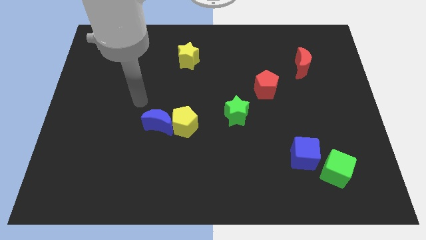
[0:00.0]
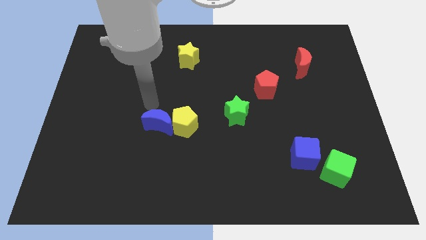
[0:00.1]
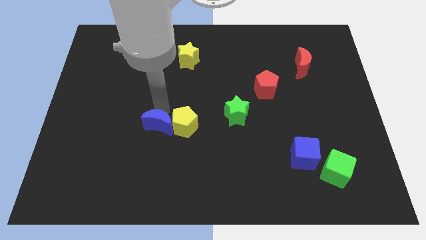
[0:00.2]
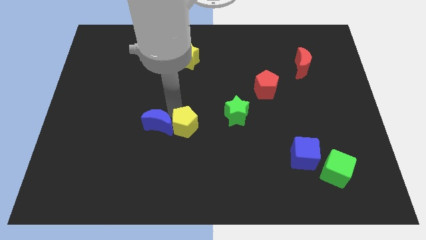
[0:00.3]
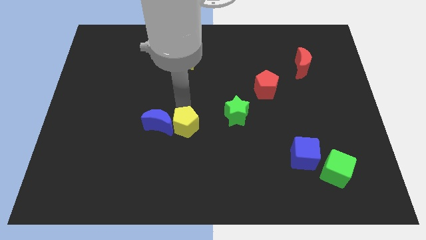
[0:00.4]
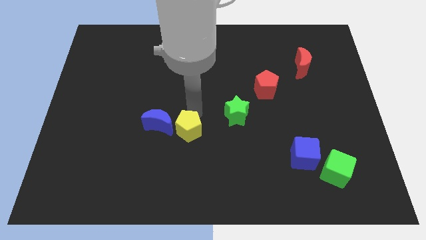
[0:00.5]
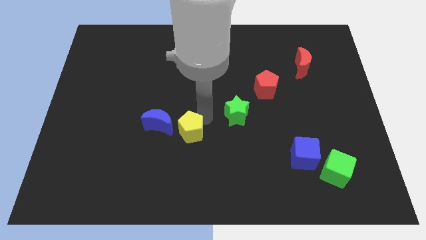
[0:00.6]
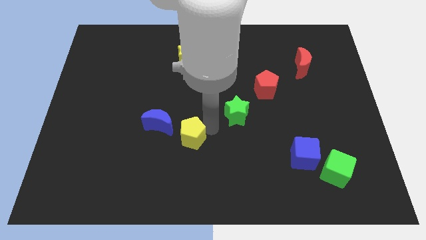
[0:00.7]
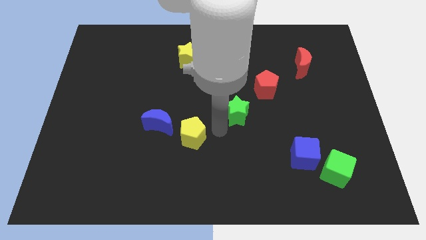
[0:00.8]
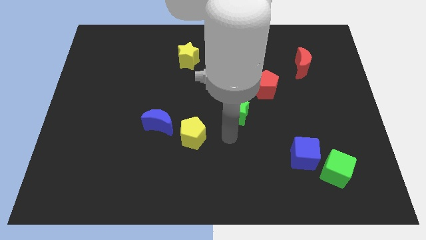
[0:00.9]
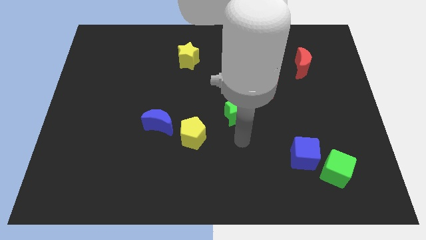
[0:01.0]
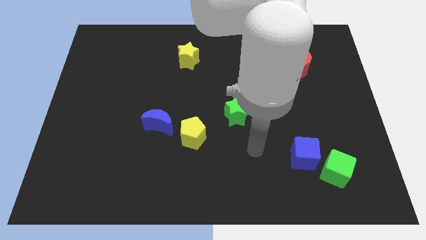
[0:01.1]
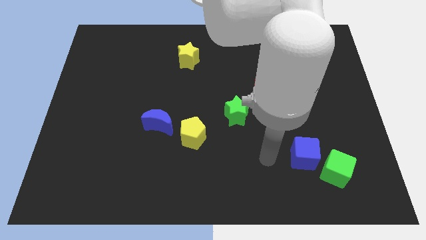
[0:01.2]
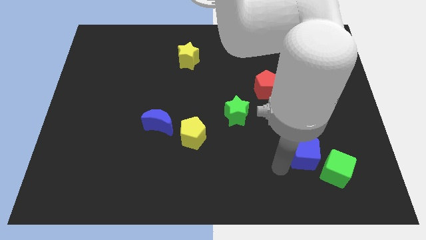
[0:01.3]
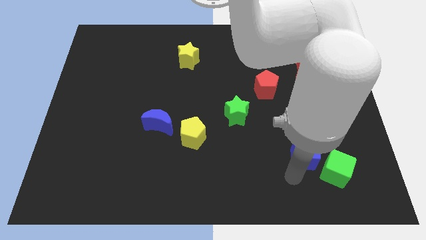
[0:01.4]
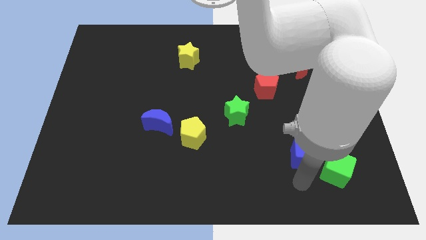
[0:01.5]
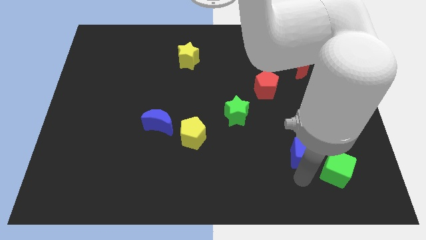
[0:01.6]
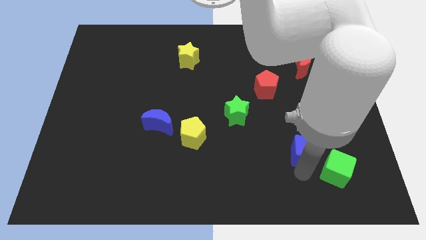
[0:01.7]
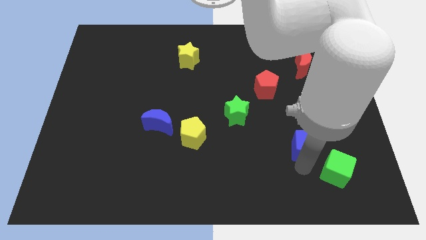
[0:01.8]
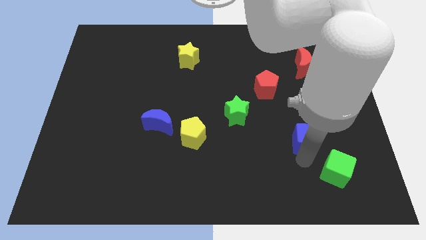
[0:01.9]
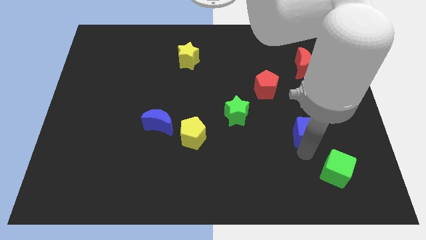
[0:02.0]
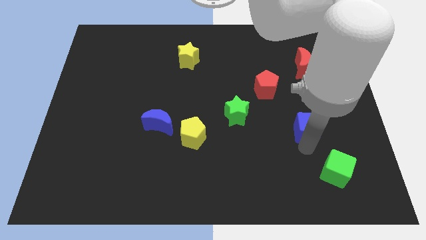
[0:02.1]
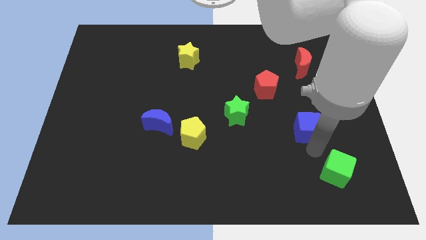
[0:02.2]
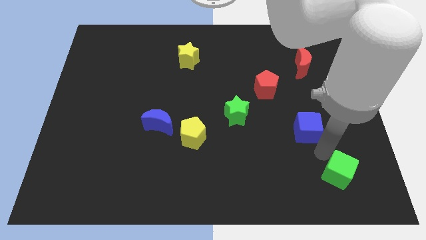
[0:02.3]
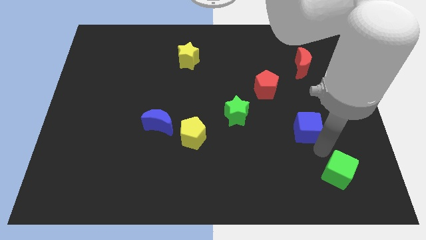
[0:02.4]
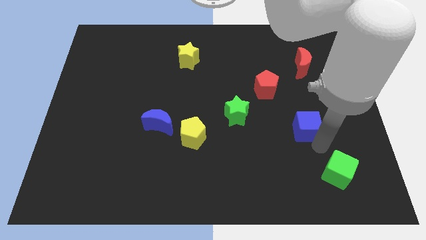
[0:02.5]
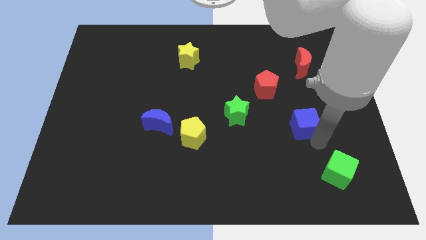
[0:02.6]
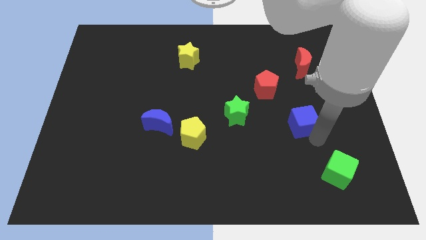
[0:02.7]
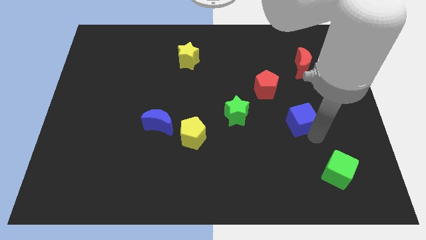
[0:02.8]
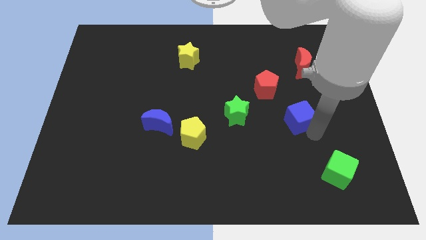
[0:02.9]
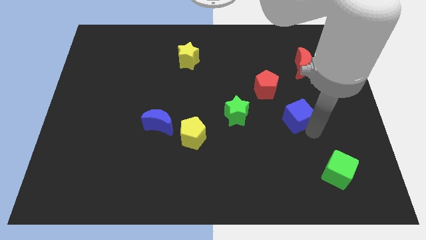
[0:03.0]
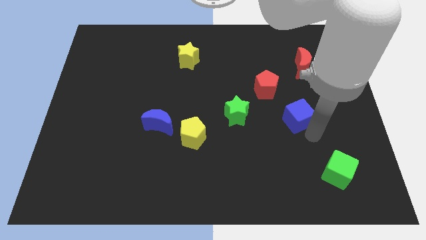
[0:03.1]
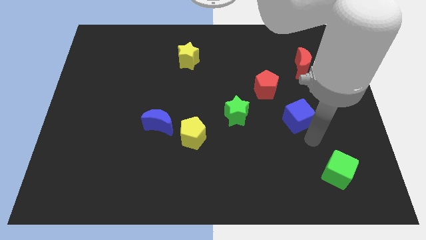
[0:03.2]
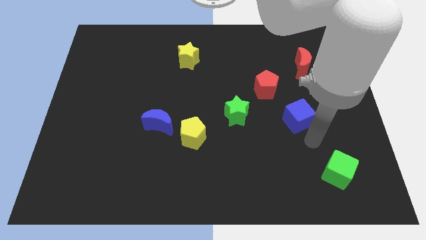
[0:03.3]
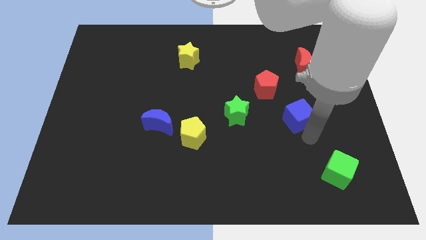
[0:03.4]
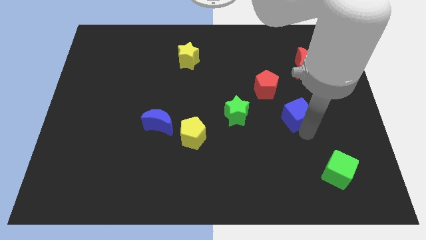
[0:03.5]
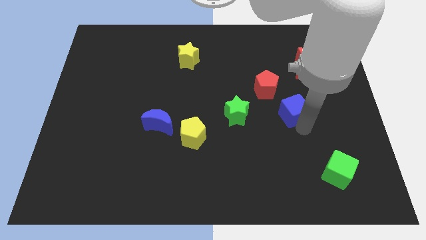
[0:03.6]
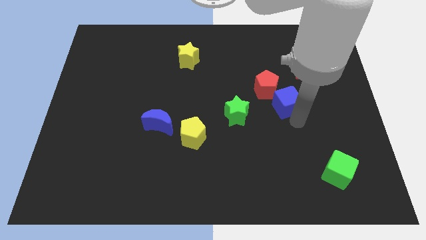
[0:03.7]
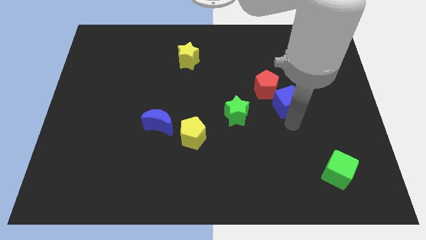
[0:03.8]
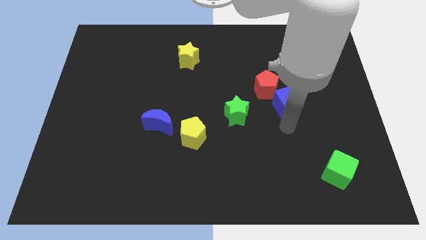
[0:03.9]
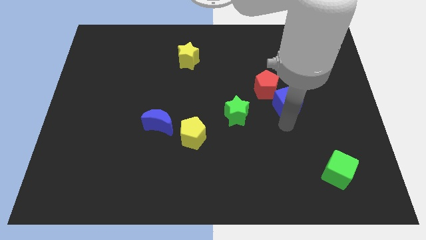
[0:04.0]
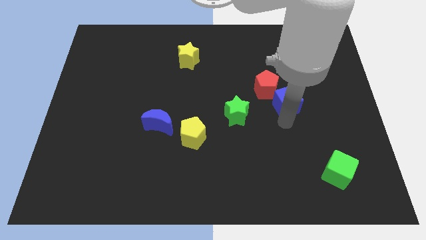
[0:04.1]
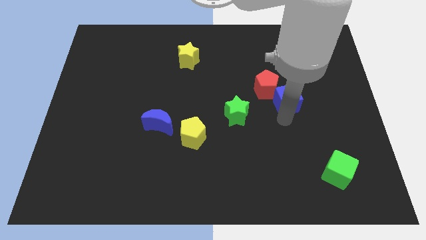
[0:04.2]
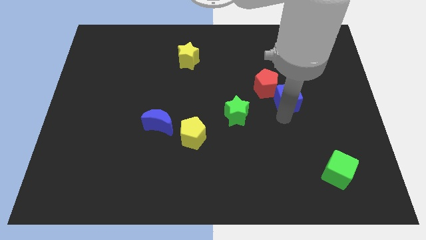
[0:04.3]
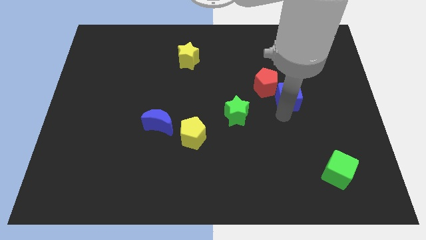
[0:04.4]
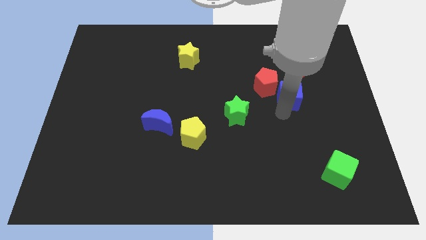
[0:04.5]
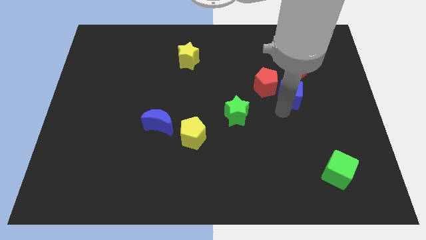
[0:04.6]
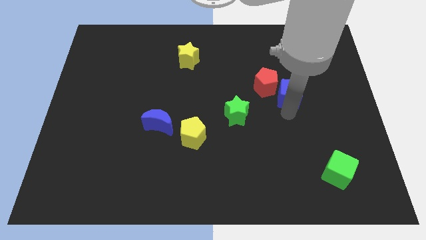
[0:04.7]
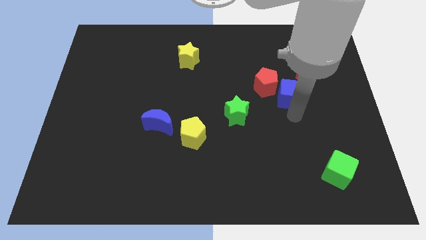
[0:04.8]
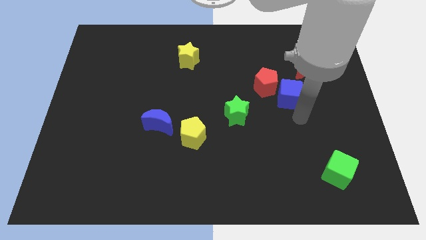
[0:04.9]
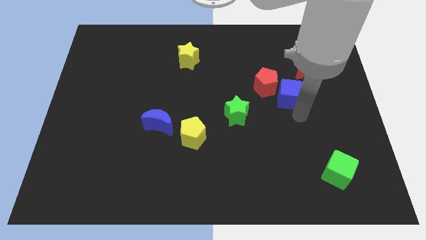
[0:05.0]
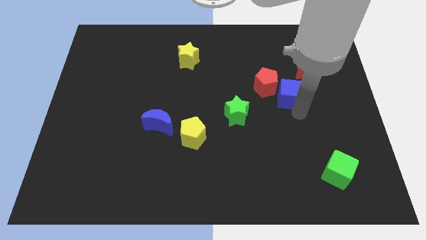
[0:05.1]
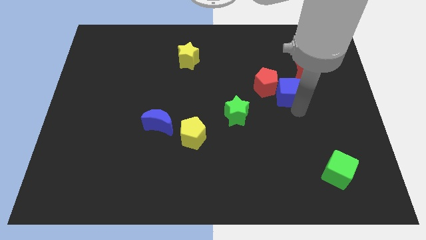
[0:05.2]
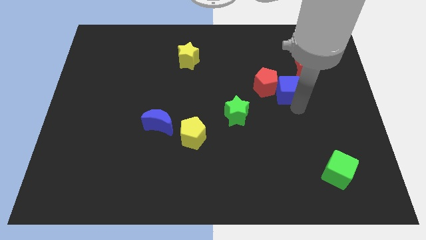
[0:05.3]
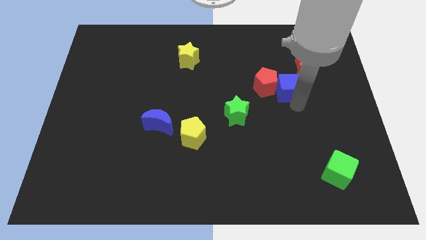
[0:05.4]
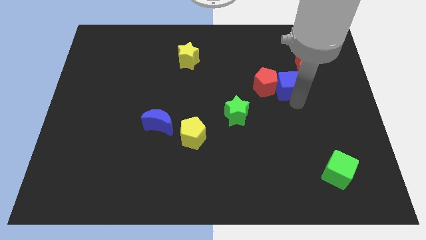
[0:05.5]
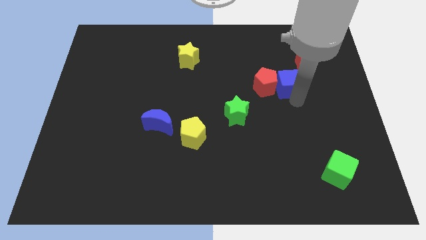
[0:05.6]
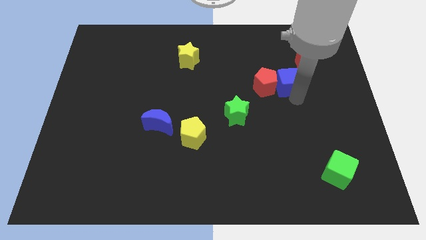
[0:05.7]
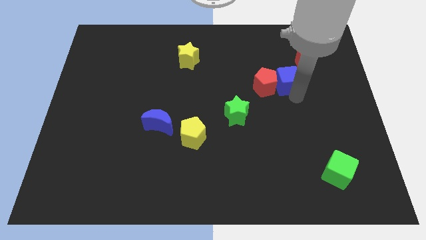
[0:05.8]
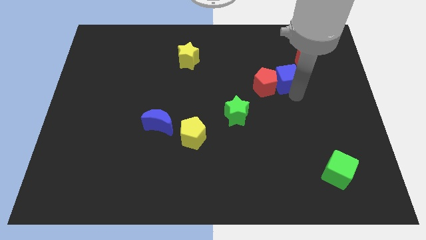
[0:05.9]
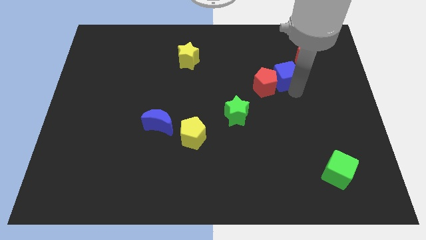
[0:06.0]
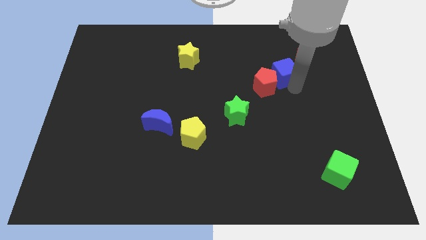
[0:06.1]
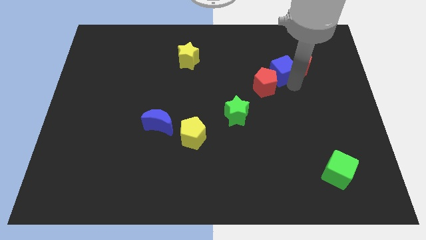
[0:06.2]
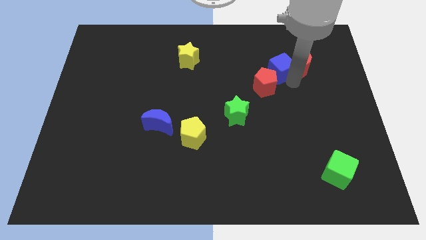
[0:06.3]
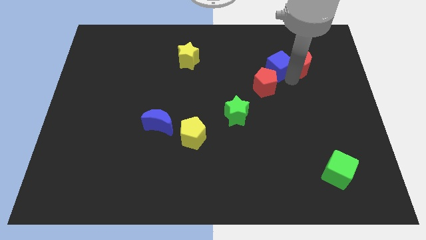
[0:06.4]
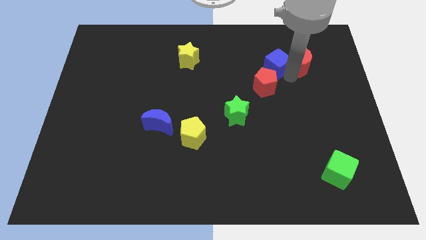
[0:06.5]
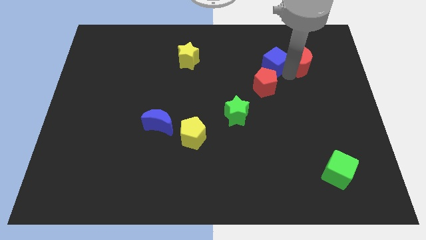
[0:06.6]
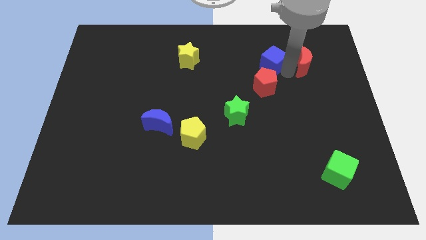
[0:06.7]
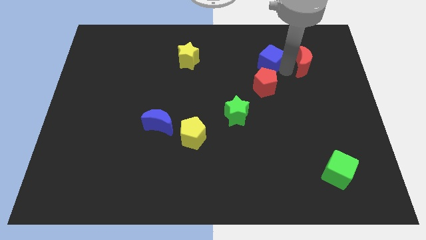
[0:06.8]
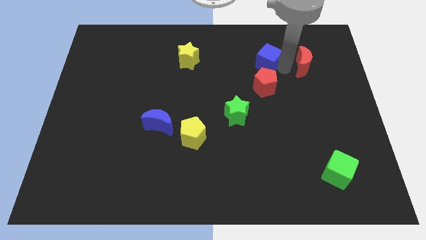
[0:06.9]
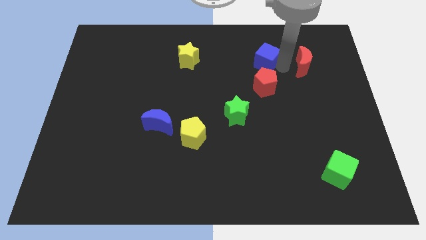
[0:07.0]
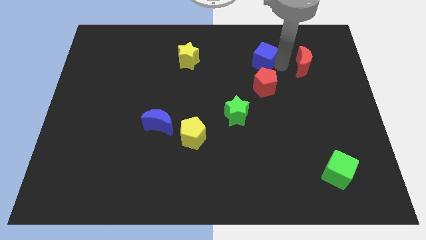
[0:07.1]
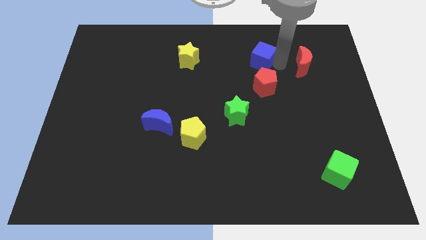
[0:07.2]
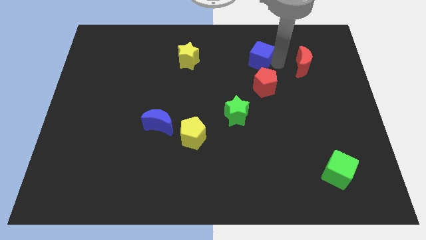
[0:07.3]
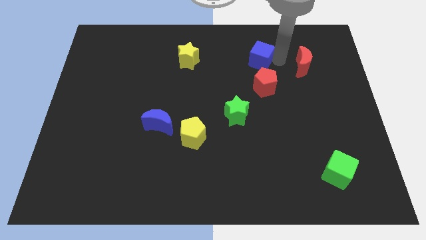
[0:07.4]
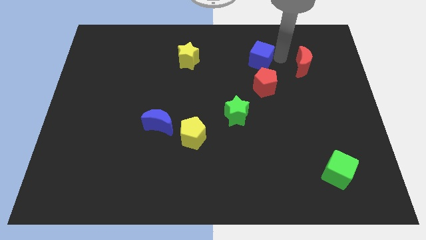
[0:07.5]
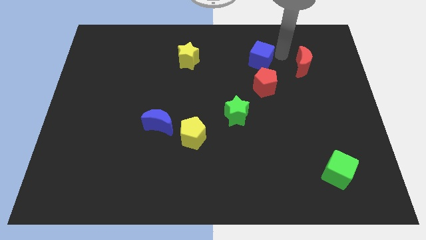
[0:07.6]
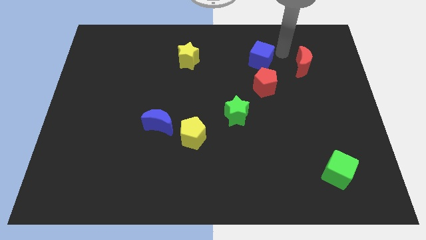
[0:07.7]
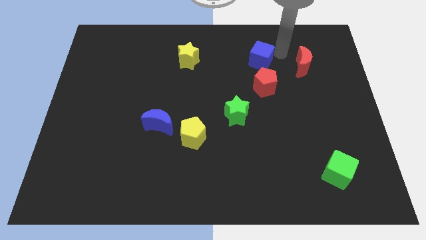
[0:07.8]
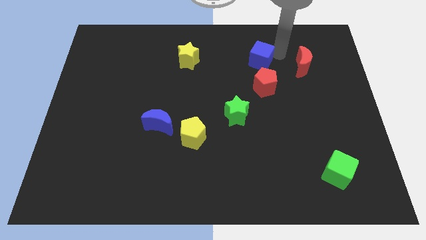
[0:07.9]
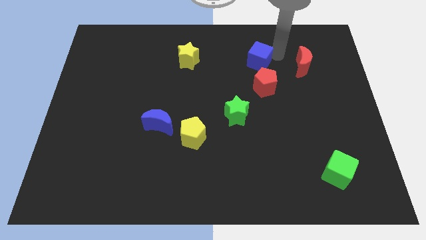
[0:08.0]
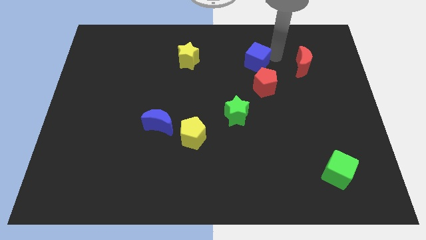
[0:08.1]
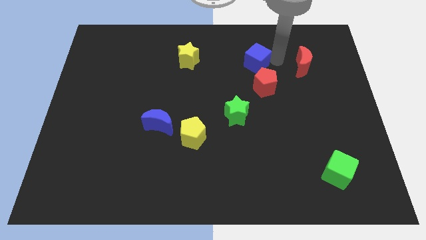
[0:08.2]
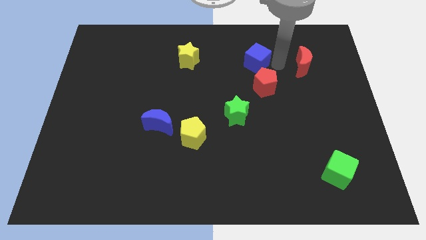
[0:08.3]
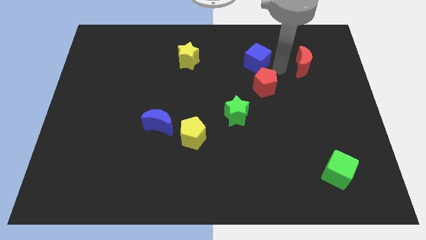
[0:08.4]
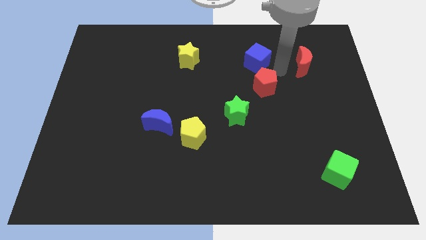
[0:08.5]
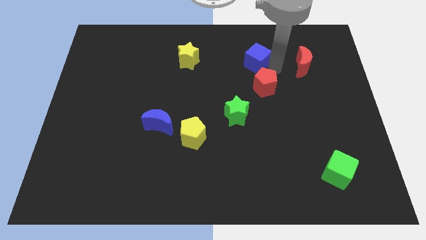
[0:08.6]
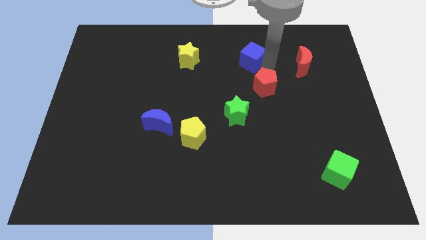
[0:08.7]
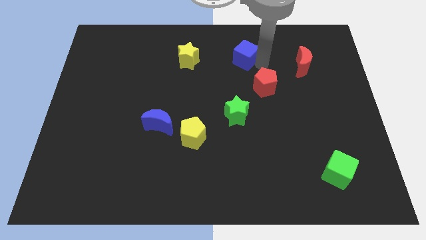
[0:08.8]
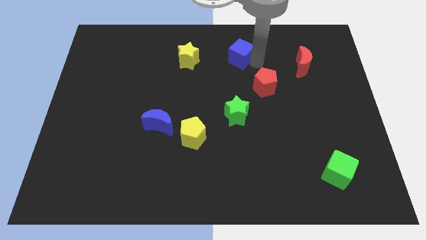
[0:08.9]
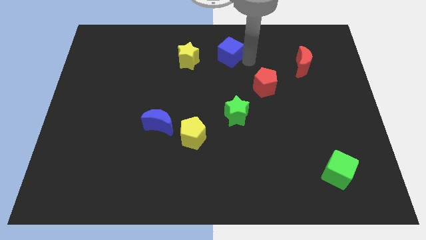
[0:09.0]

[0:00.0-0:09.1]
slide the blue cube to the towards your base
